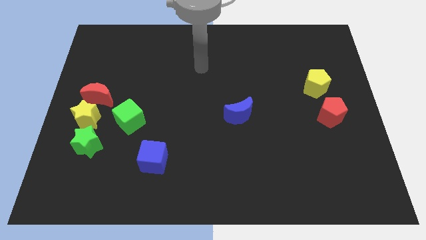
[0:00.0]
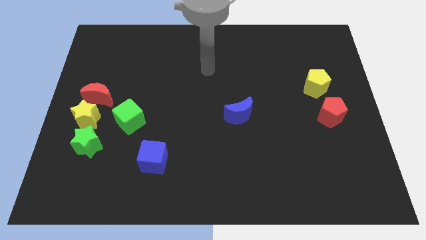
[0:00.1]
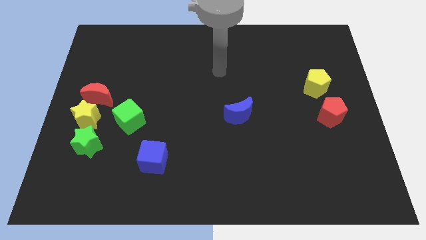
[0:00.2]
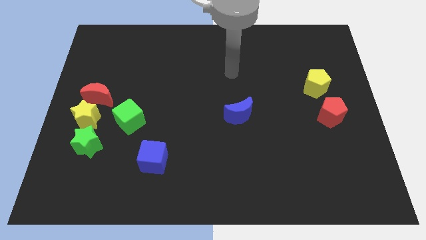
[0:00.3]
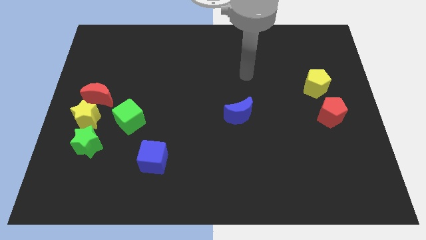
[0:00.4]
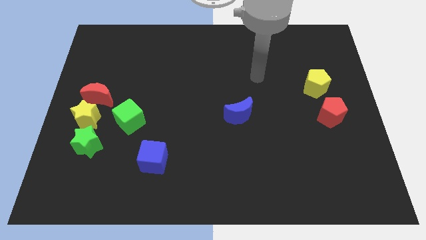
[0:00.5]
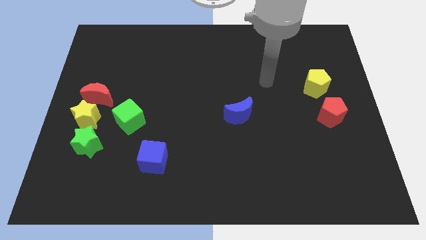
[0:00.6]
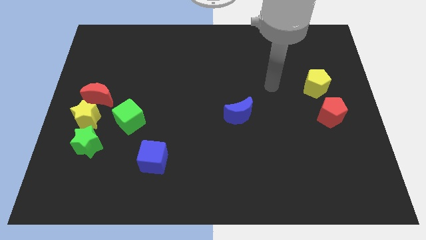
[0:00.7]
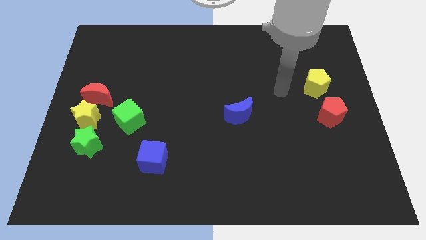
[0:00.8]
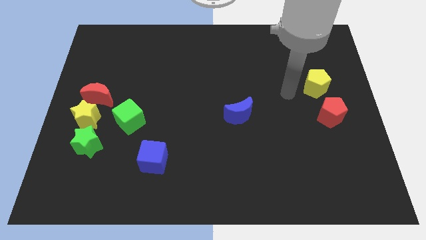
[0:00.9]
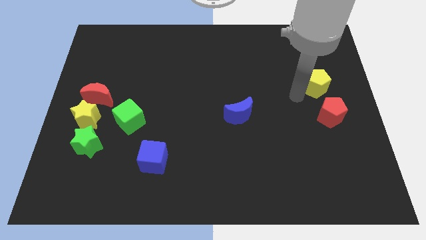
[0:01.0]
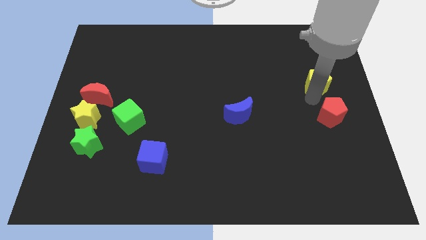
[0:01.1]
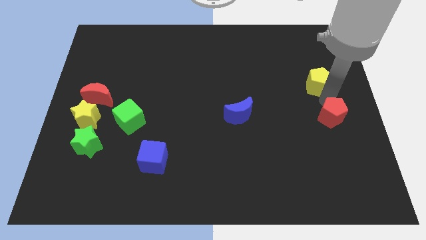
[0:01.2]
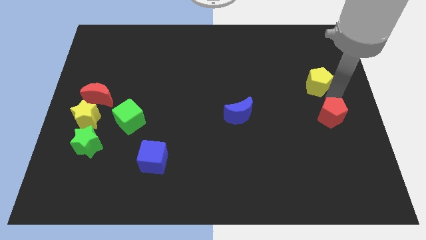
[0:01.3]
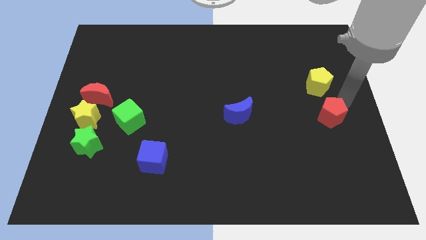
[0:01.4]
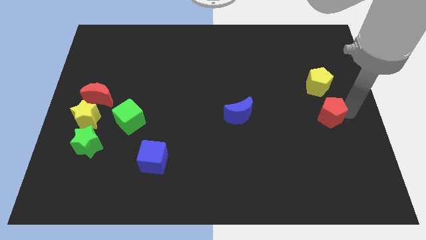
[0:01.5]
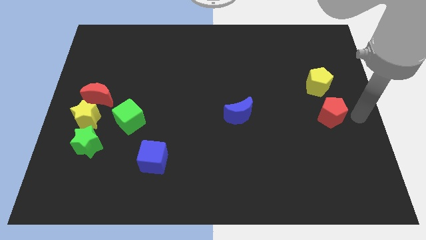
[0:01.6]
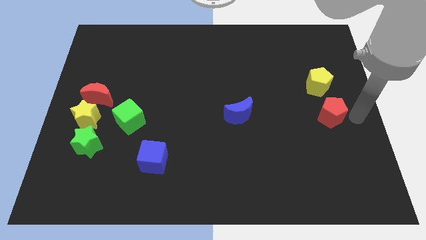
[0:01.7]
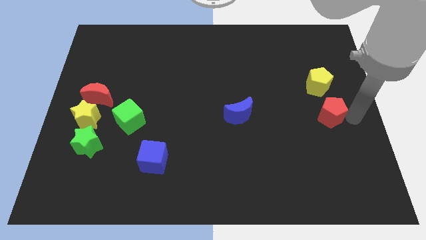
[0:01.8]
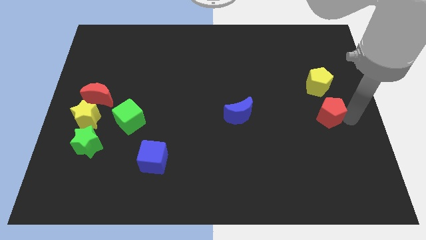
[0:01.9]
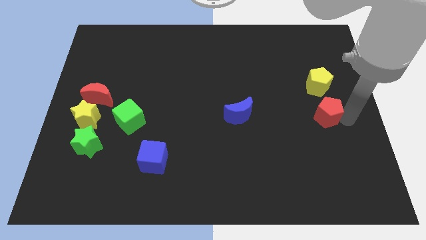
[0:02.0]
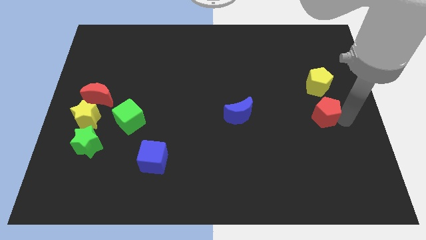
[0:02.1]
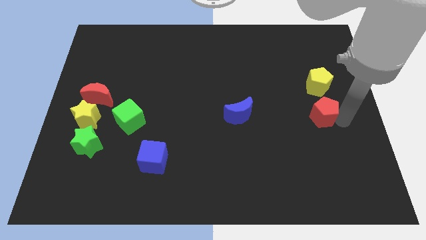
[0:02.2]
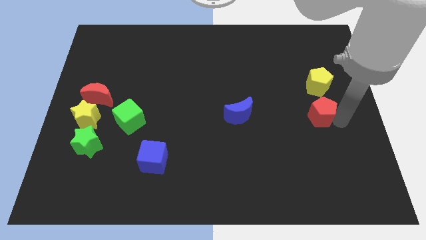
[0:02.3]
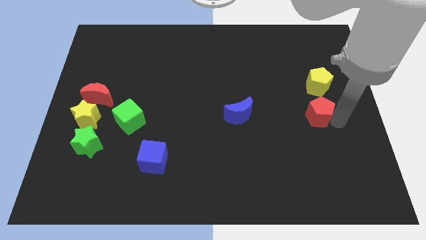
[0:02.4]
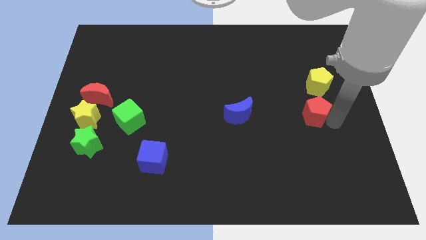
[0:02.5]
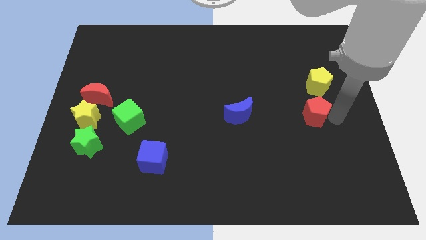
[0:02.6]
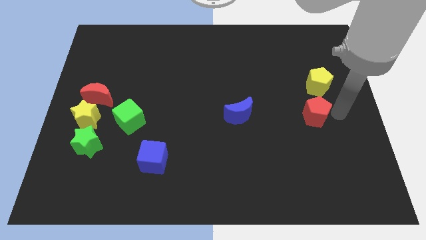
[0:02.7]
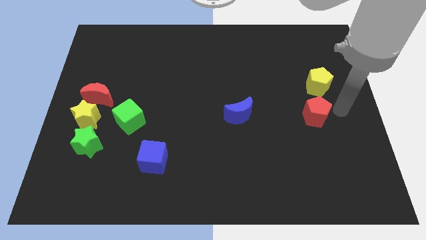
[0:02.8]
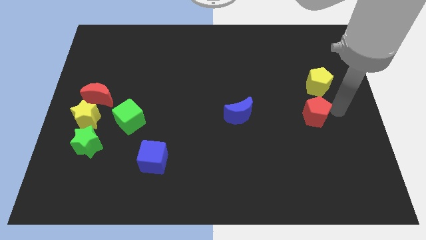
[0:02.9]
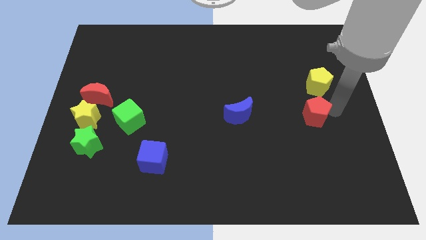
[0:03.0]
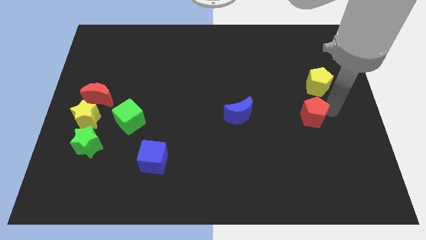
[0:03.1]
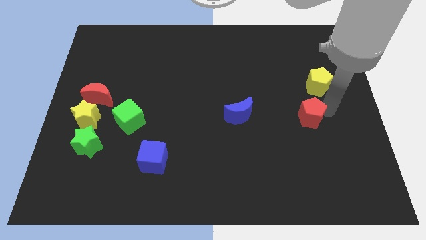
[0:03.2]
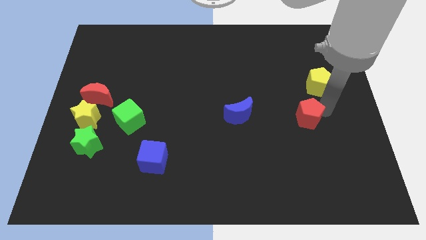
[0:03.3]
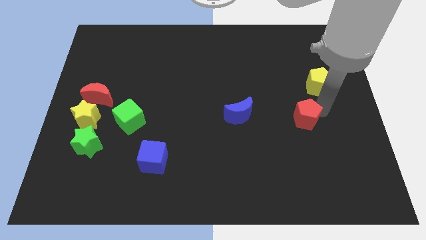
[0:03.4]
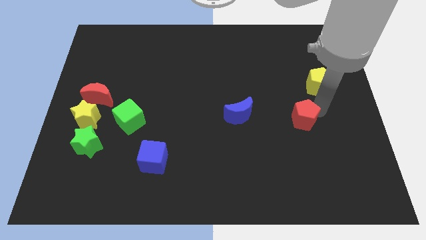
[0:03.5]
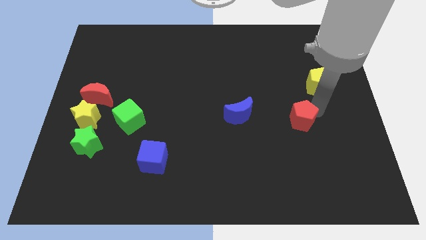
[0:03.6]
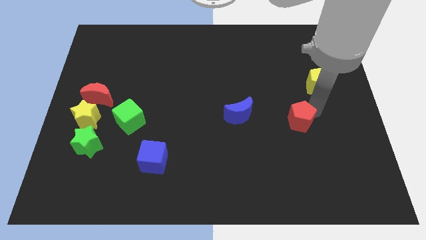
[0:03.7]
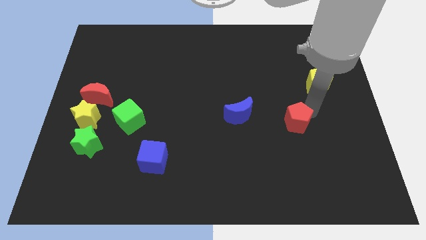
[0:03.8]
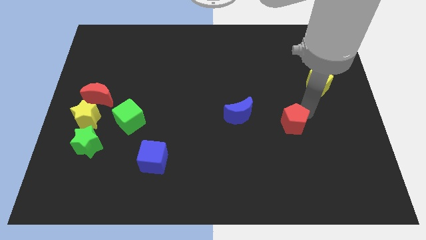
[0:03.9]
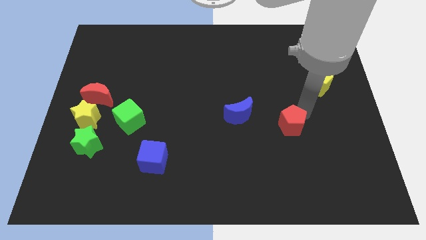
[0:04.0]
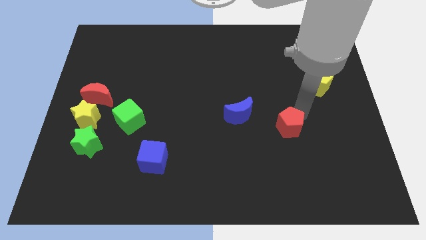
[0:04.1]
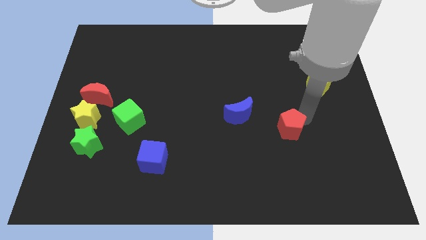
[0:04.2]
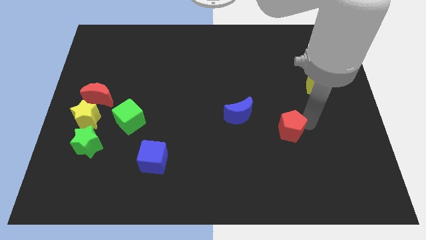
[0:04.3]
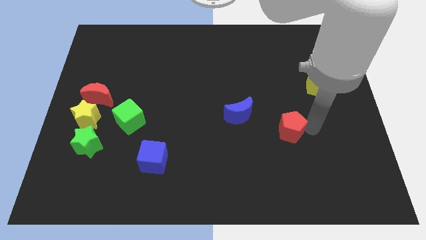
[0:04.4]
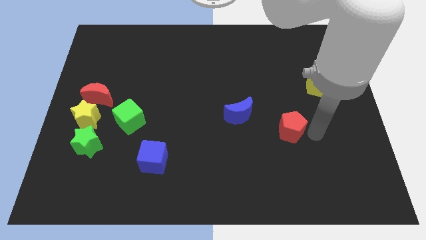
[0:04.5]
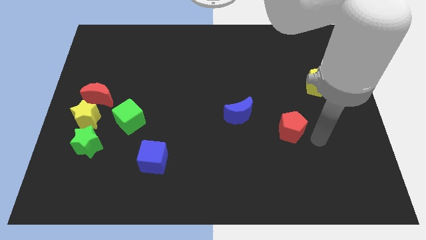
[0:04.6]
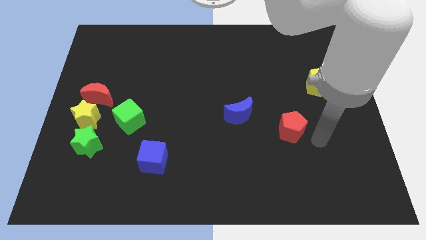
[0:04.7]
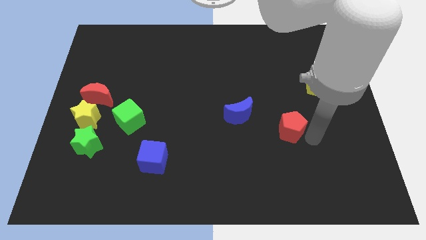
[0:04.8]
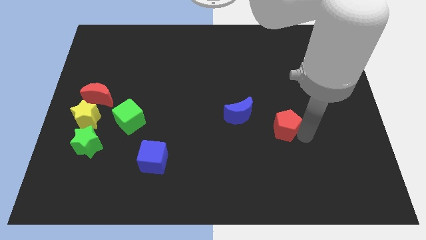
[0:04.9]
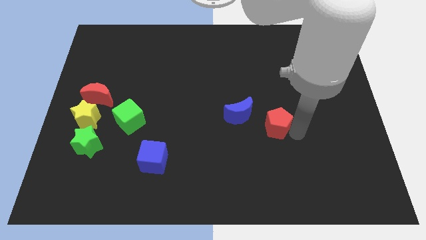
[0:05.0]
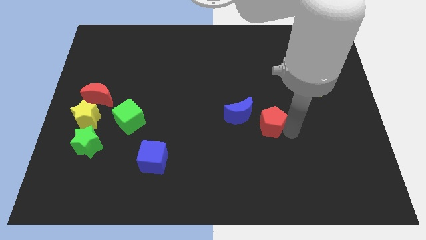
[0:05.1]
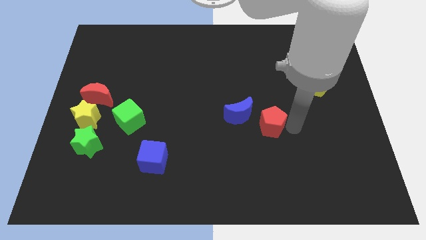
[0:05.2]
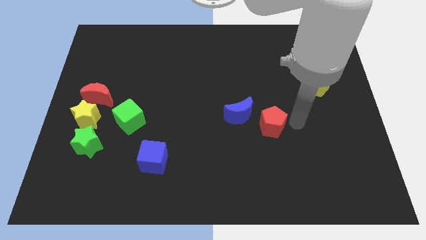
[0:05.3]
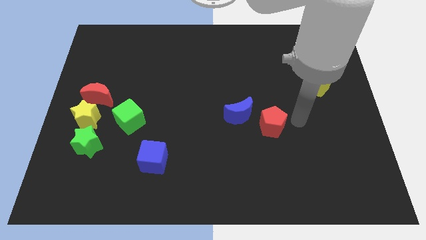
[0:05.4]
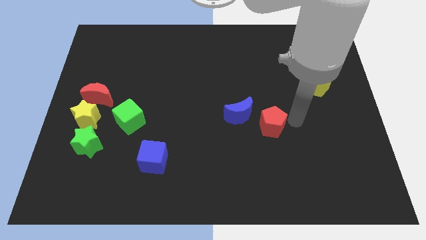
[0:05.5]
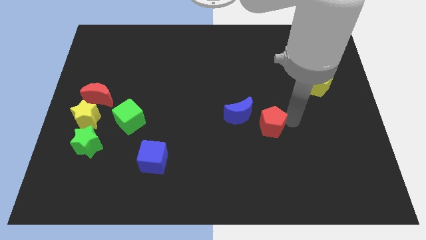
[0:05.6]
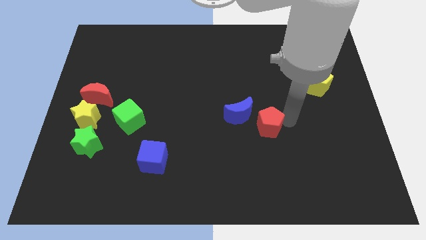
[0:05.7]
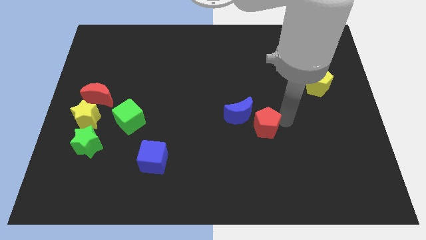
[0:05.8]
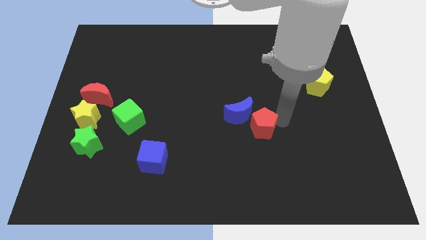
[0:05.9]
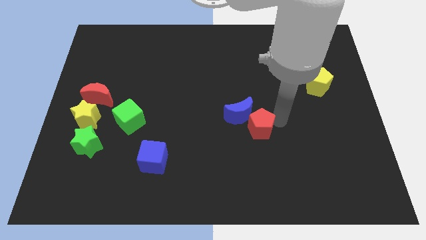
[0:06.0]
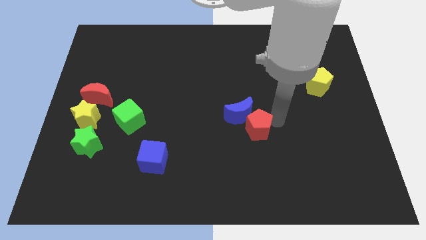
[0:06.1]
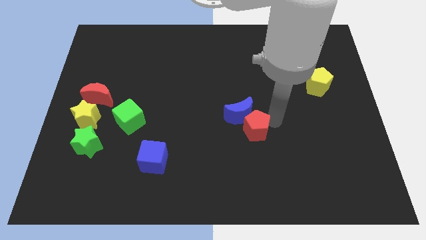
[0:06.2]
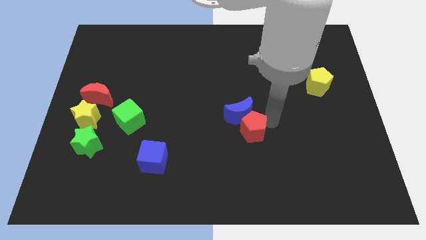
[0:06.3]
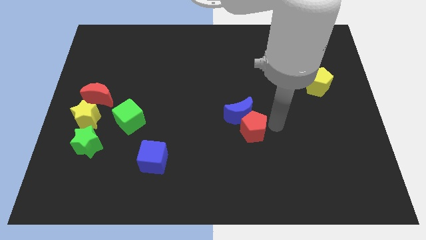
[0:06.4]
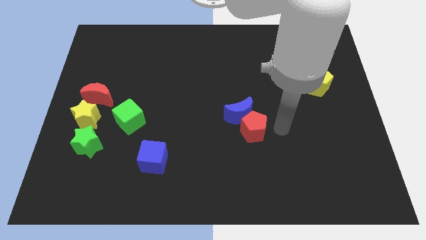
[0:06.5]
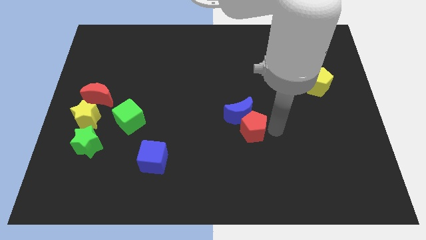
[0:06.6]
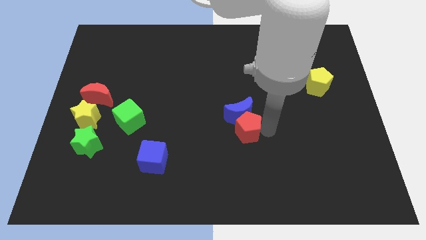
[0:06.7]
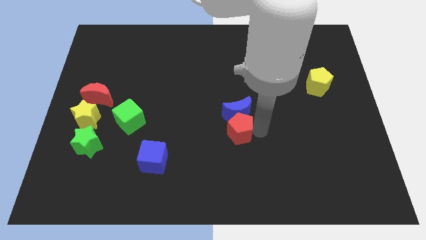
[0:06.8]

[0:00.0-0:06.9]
slide the red pentagon left

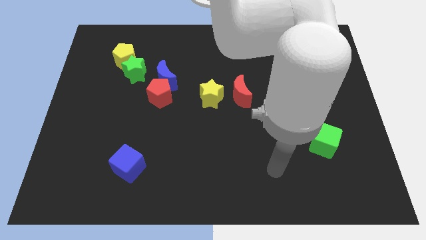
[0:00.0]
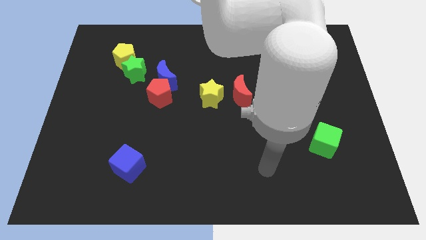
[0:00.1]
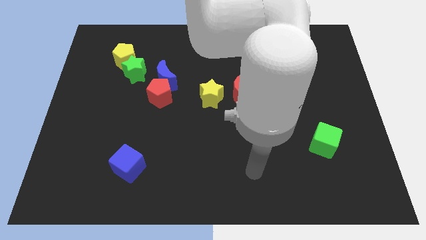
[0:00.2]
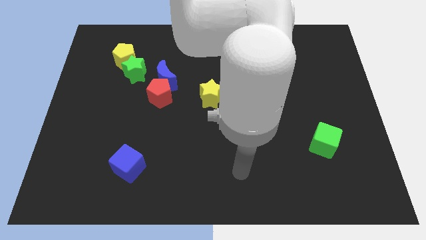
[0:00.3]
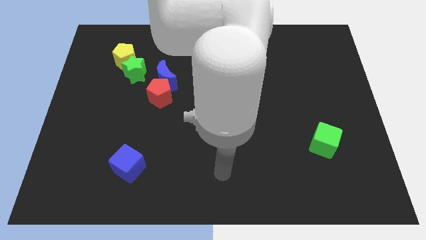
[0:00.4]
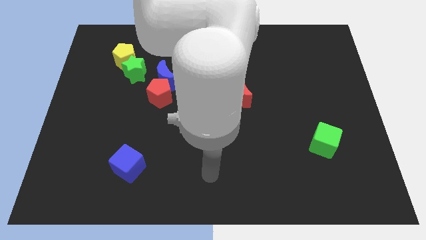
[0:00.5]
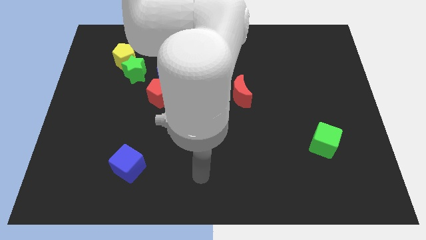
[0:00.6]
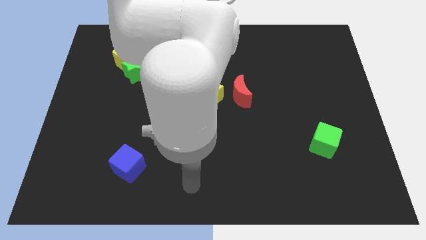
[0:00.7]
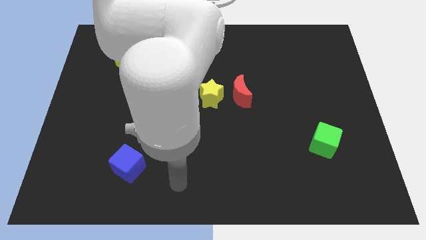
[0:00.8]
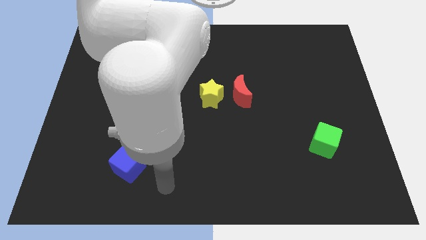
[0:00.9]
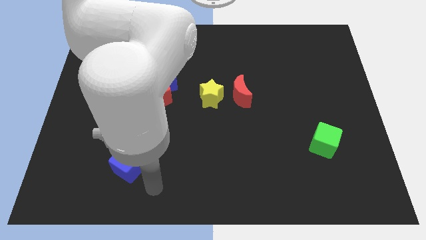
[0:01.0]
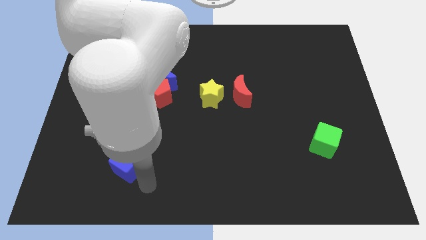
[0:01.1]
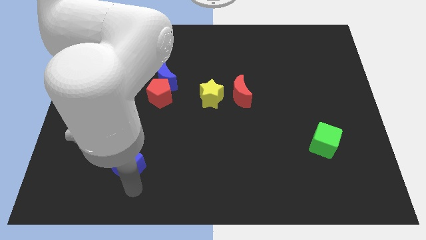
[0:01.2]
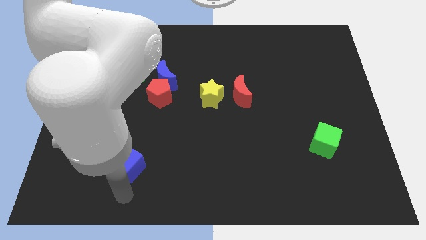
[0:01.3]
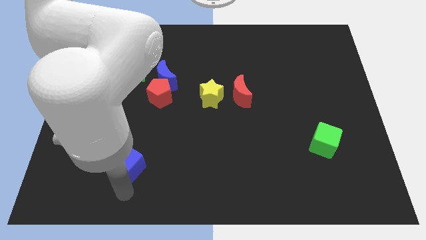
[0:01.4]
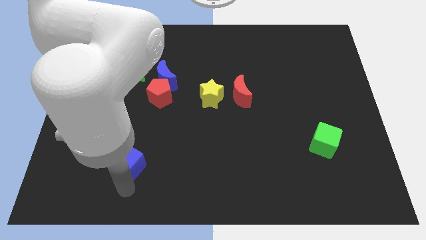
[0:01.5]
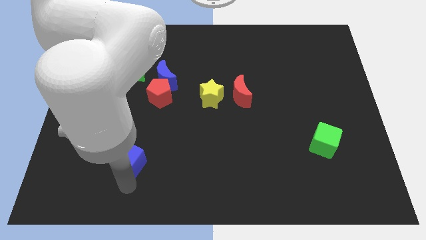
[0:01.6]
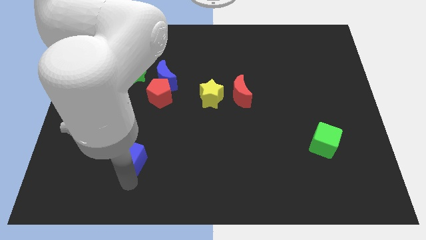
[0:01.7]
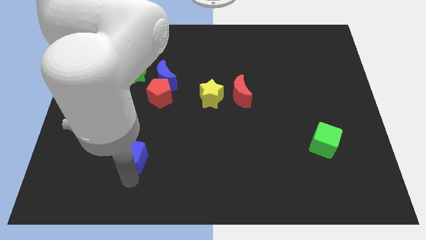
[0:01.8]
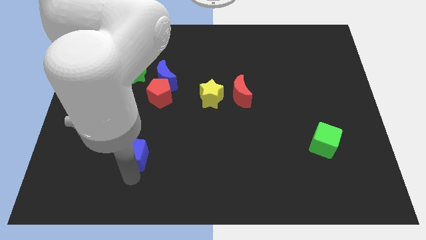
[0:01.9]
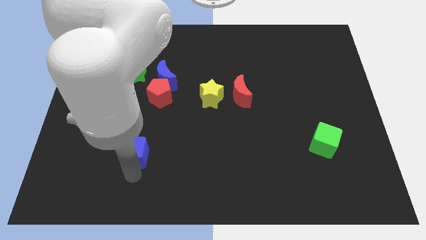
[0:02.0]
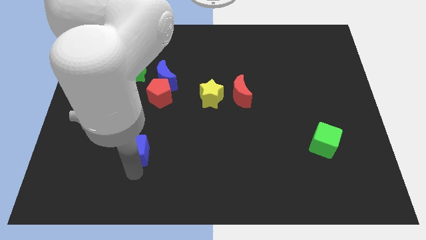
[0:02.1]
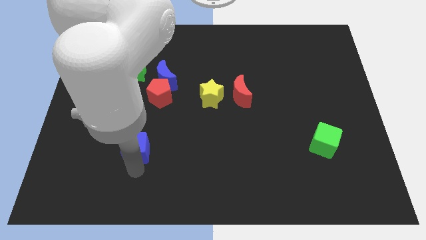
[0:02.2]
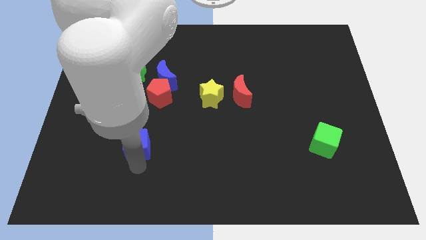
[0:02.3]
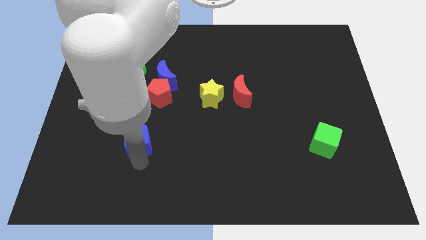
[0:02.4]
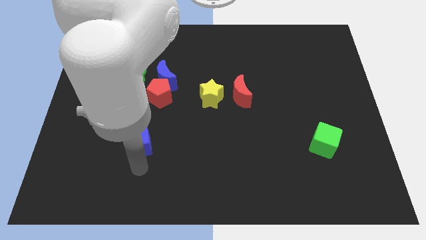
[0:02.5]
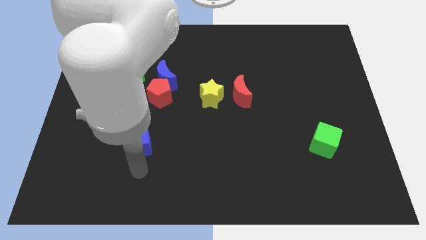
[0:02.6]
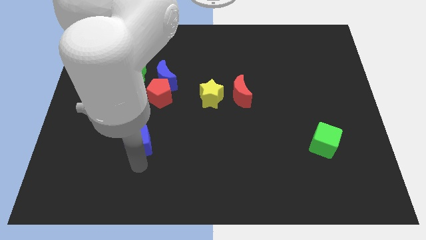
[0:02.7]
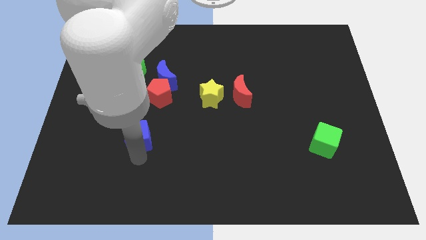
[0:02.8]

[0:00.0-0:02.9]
slightly move the blue cube upwards
